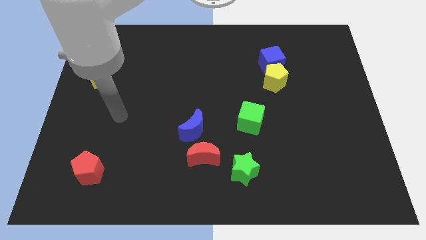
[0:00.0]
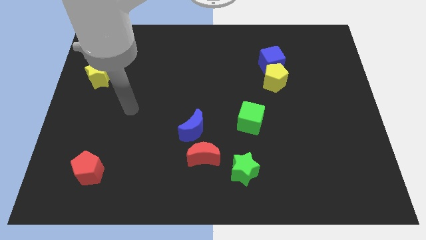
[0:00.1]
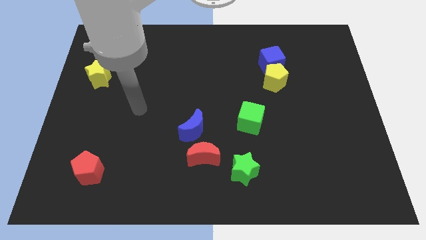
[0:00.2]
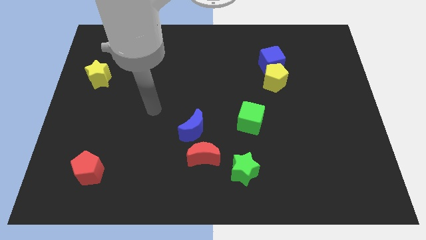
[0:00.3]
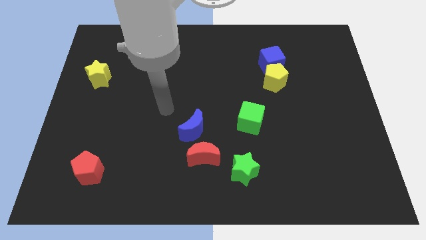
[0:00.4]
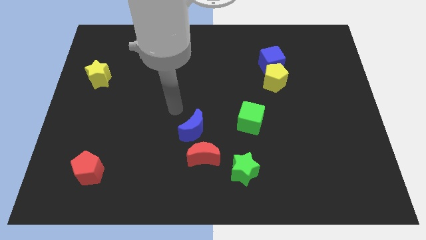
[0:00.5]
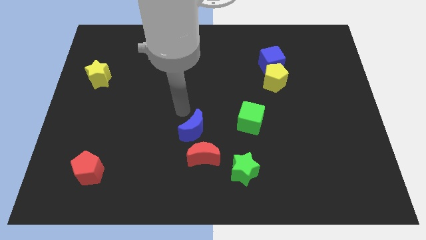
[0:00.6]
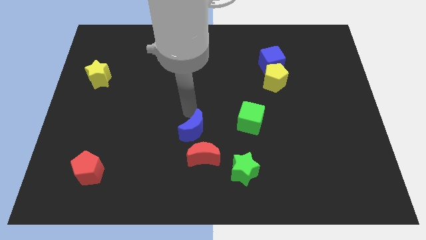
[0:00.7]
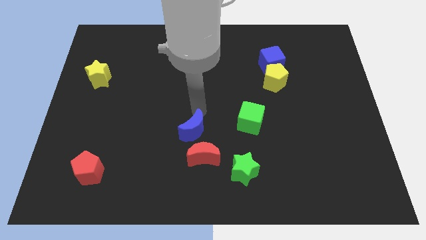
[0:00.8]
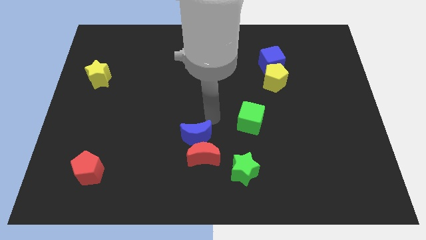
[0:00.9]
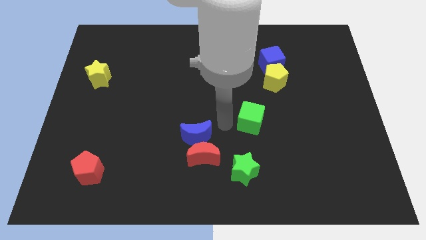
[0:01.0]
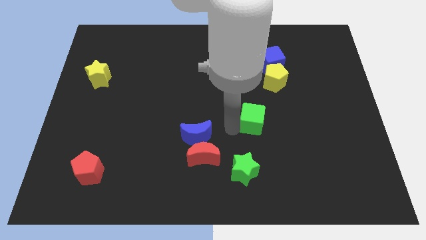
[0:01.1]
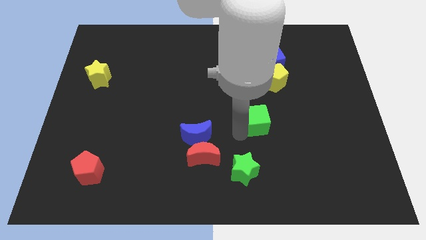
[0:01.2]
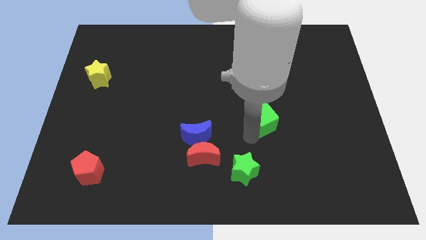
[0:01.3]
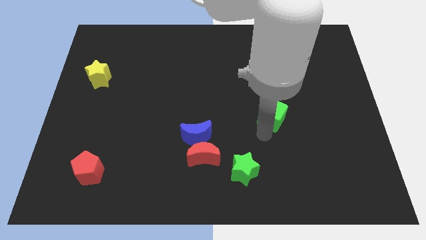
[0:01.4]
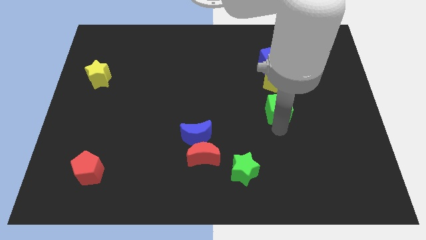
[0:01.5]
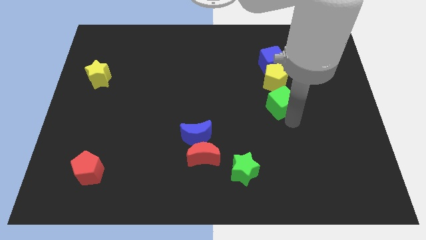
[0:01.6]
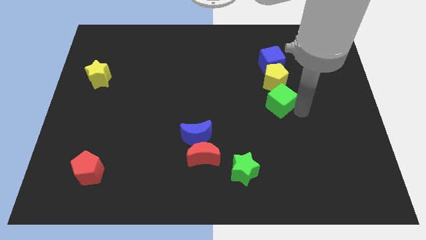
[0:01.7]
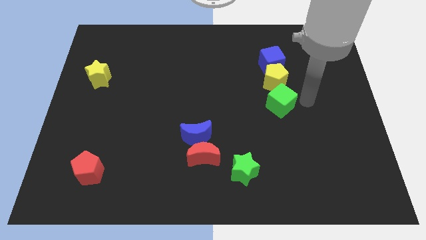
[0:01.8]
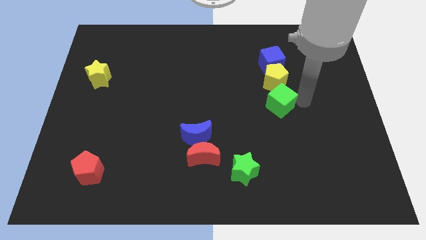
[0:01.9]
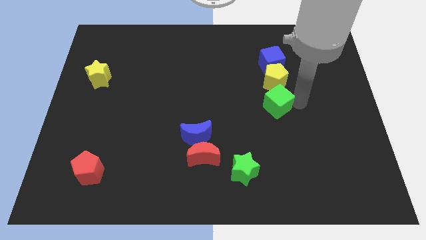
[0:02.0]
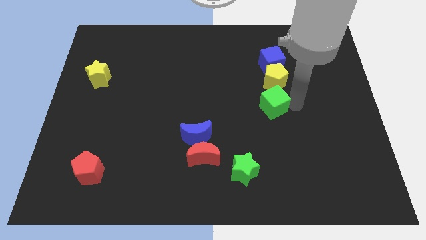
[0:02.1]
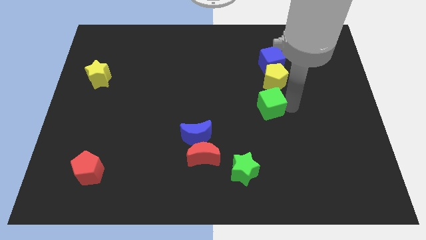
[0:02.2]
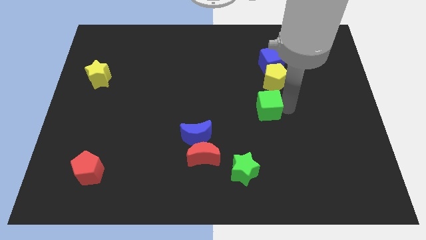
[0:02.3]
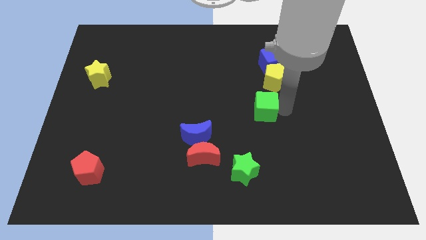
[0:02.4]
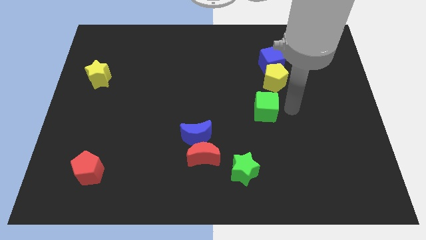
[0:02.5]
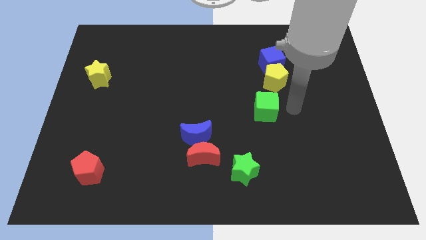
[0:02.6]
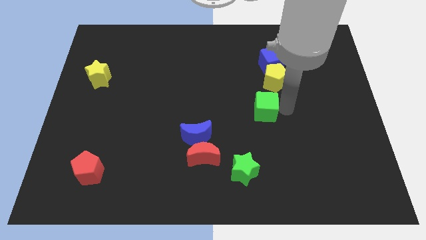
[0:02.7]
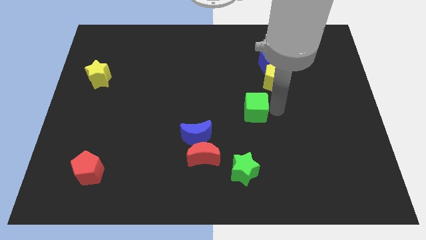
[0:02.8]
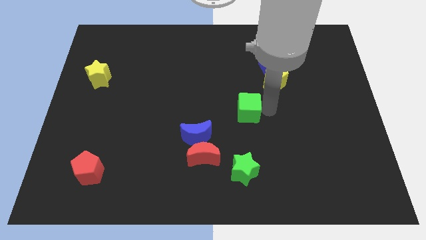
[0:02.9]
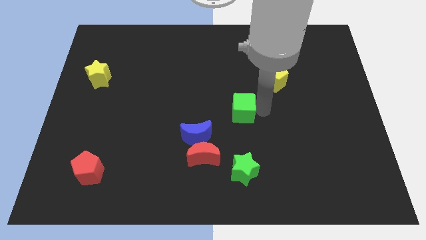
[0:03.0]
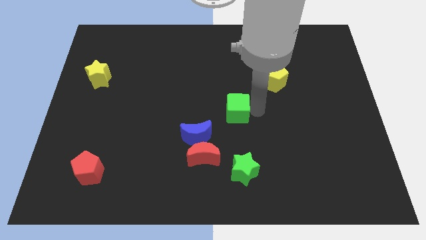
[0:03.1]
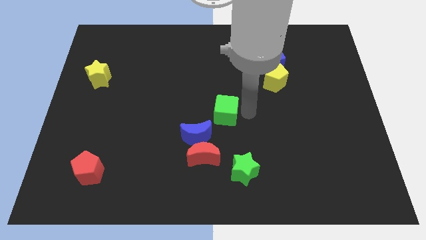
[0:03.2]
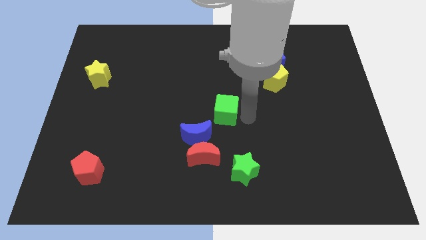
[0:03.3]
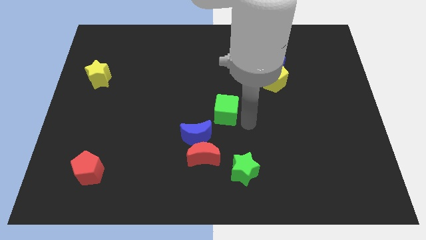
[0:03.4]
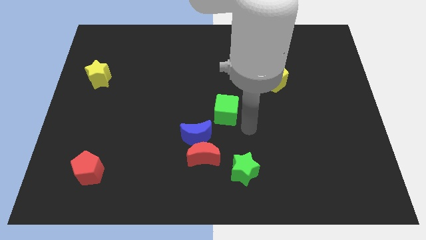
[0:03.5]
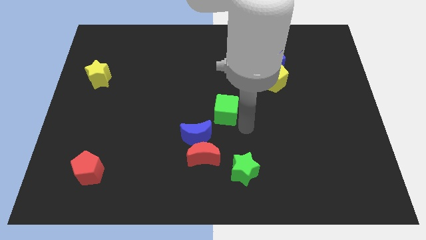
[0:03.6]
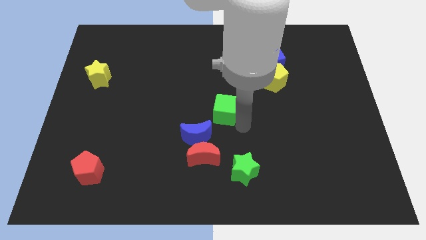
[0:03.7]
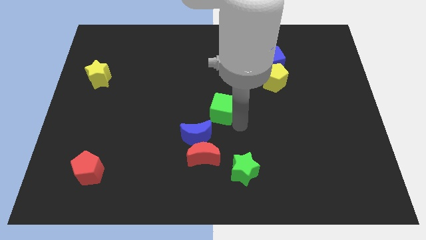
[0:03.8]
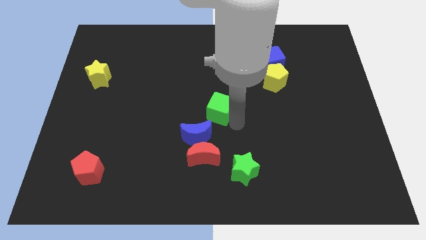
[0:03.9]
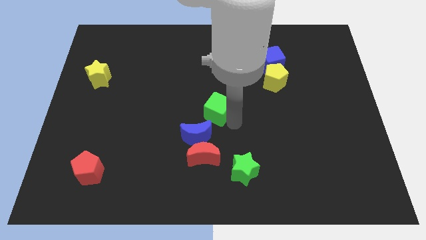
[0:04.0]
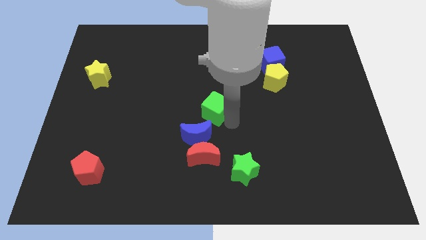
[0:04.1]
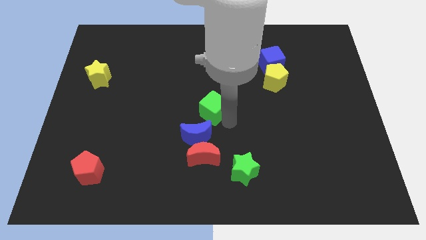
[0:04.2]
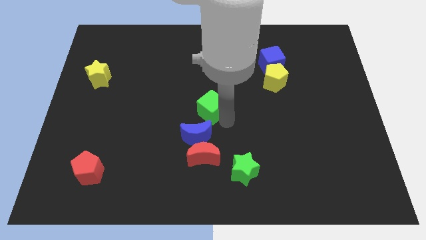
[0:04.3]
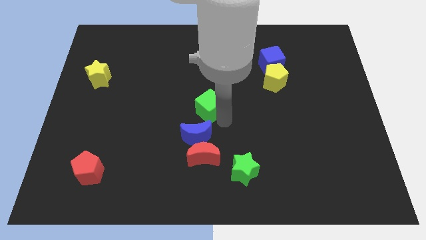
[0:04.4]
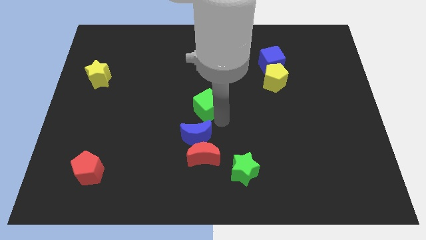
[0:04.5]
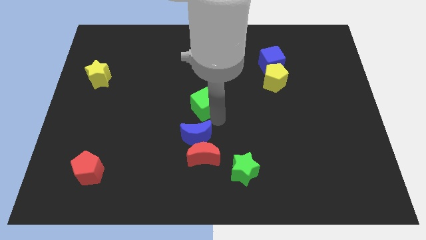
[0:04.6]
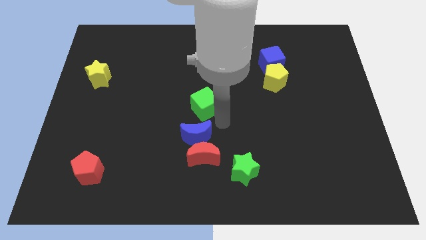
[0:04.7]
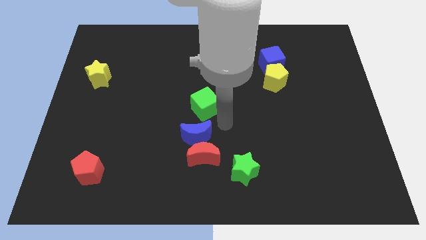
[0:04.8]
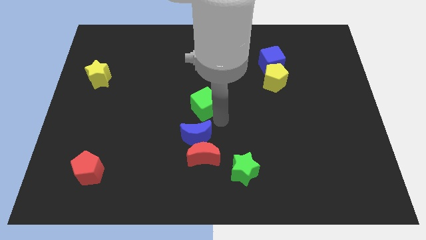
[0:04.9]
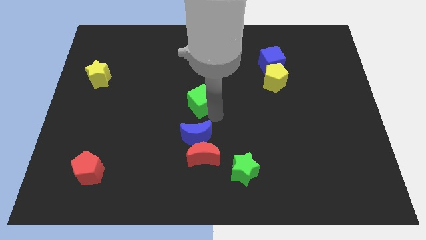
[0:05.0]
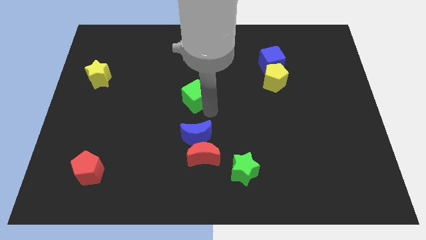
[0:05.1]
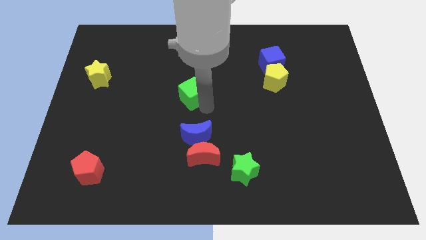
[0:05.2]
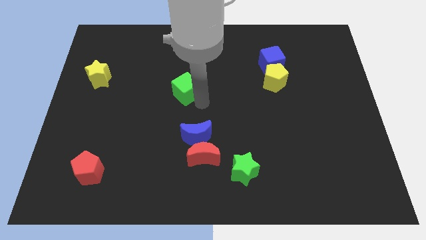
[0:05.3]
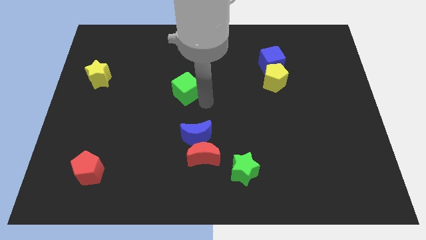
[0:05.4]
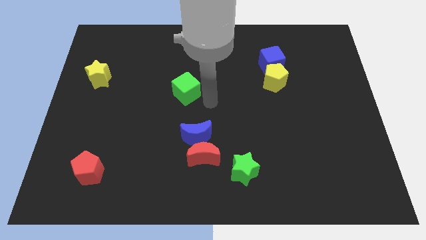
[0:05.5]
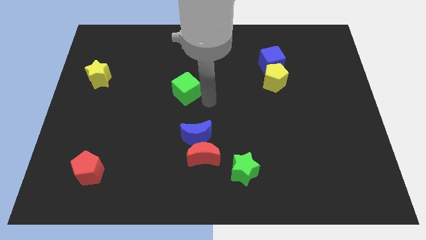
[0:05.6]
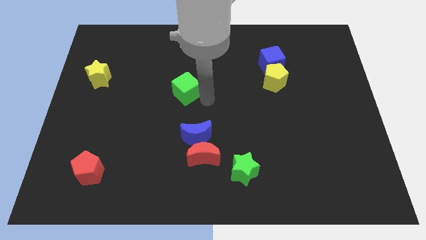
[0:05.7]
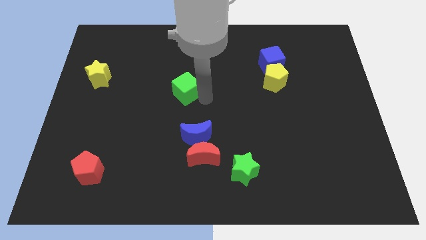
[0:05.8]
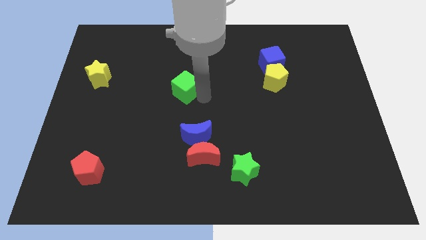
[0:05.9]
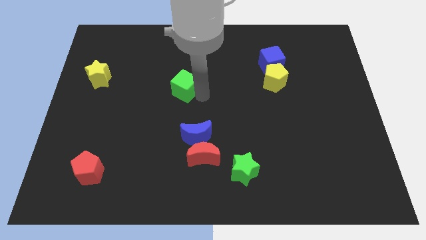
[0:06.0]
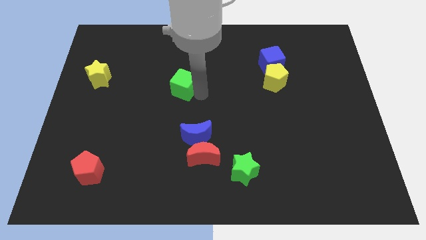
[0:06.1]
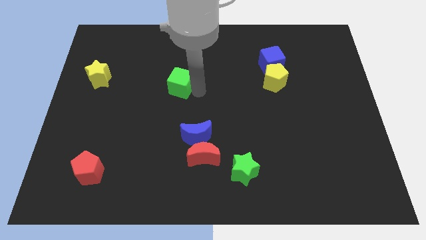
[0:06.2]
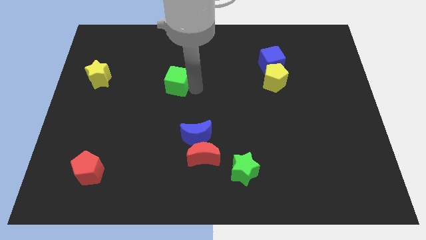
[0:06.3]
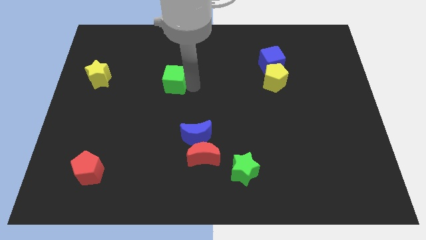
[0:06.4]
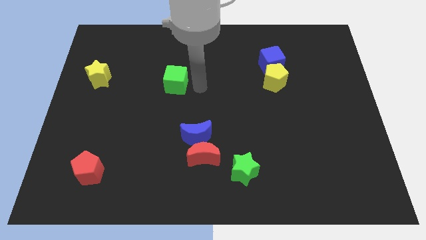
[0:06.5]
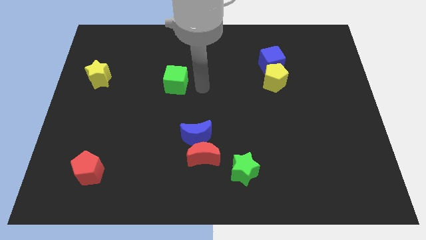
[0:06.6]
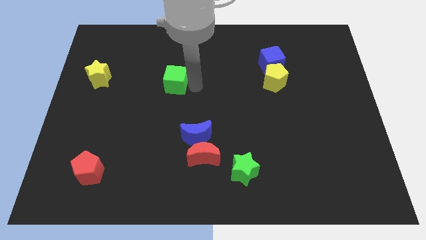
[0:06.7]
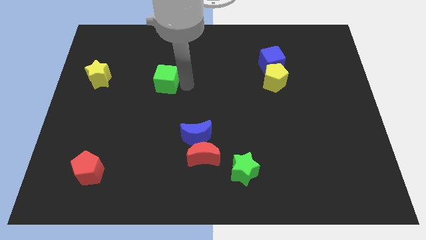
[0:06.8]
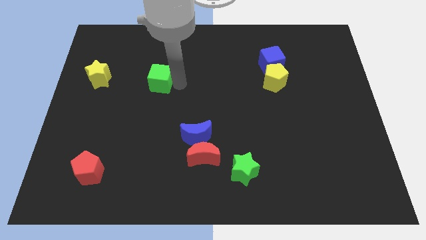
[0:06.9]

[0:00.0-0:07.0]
move the green cube just right of the yellow star
